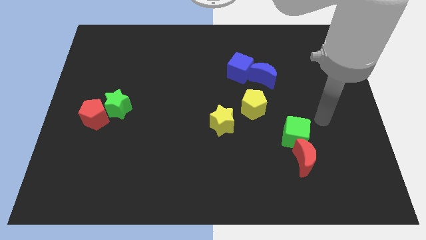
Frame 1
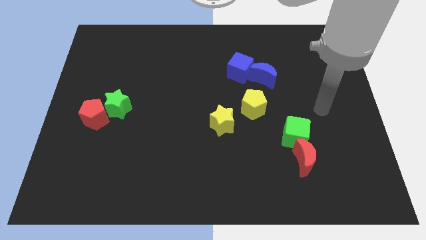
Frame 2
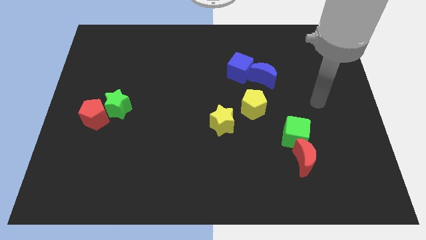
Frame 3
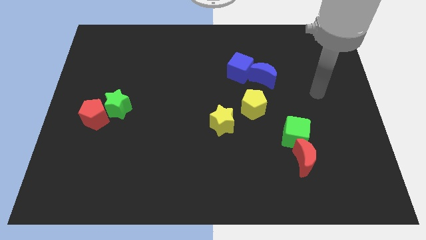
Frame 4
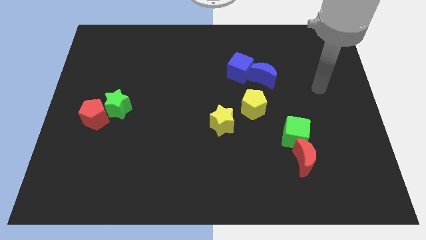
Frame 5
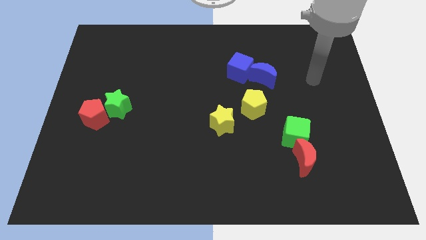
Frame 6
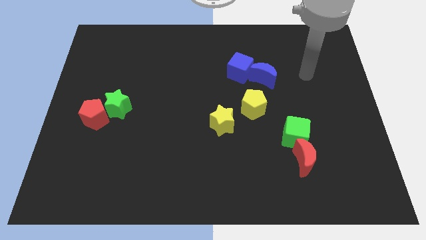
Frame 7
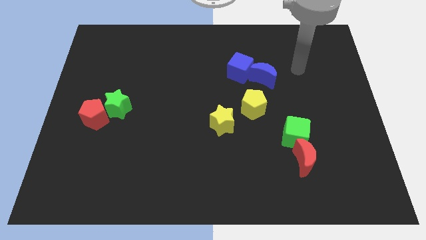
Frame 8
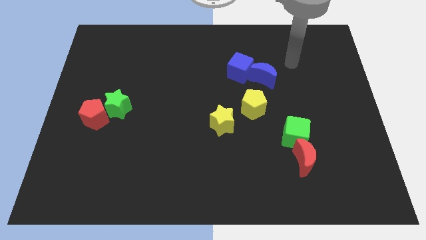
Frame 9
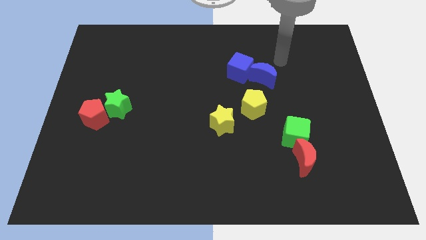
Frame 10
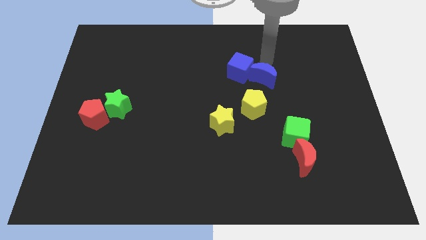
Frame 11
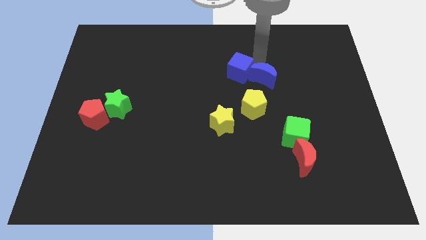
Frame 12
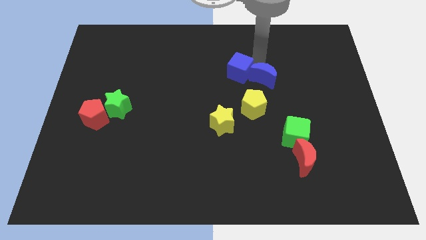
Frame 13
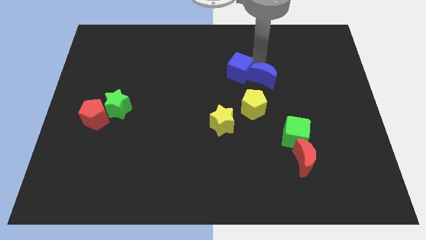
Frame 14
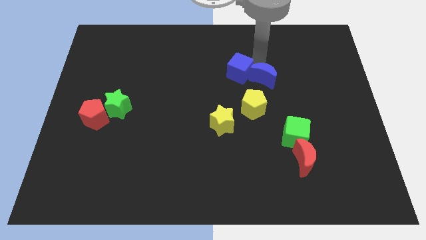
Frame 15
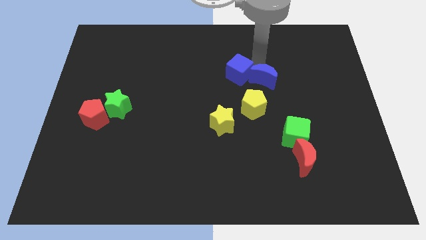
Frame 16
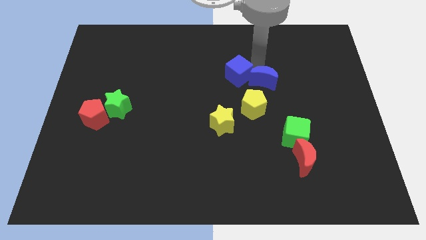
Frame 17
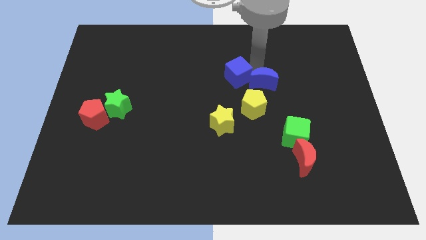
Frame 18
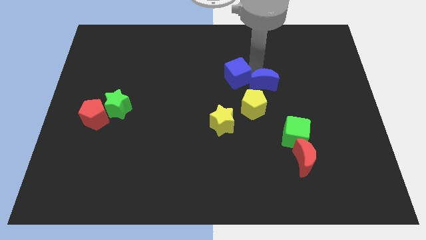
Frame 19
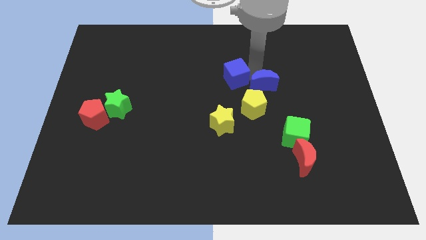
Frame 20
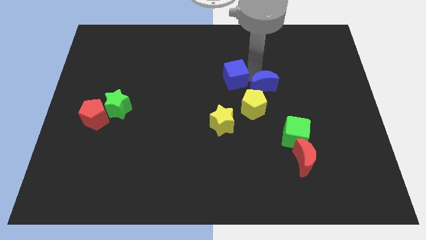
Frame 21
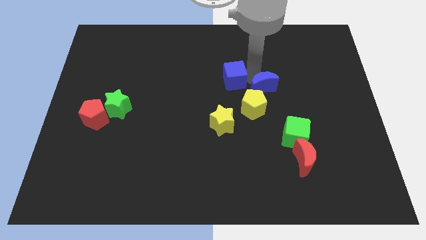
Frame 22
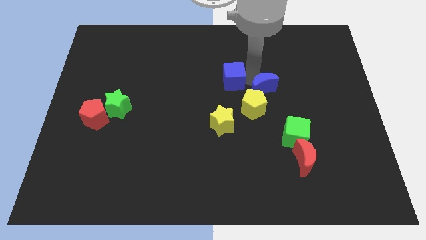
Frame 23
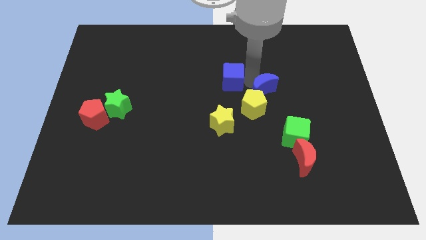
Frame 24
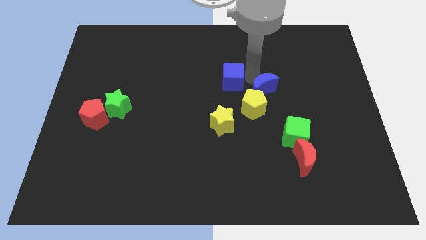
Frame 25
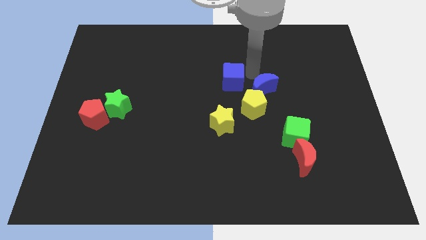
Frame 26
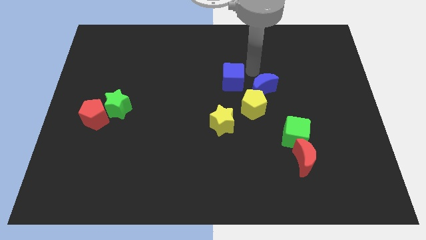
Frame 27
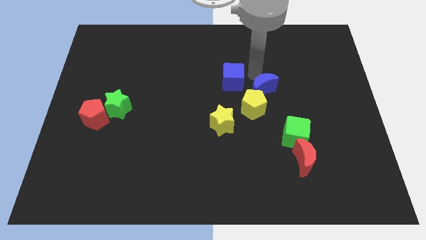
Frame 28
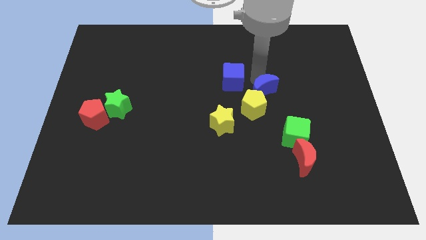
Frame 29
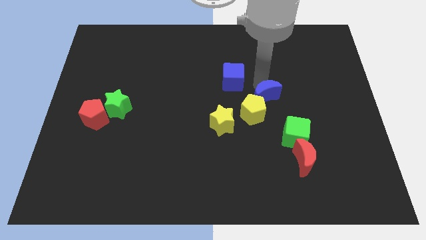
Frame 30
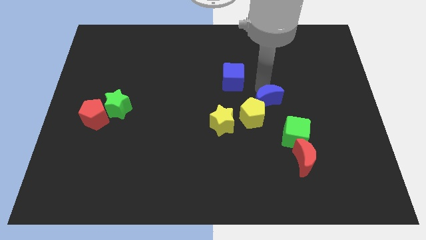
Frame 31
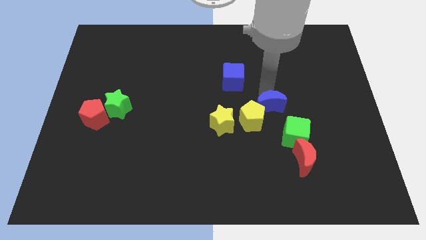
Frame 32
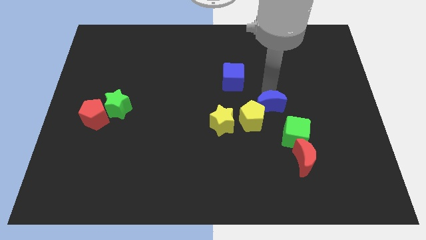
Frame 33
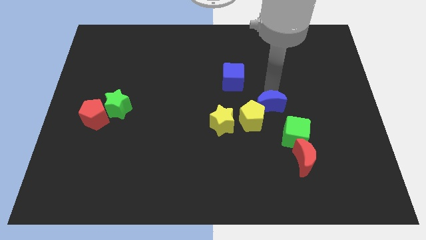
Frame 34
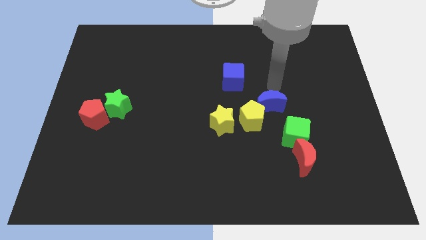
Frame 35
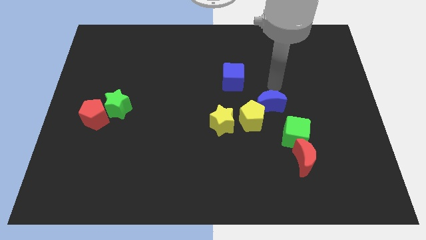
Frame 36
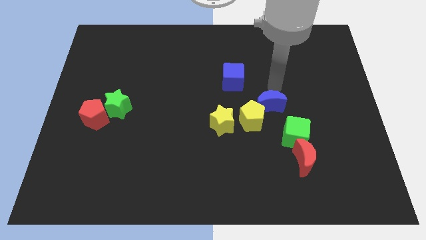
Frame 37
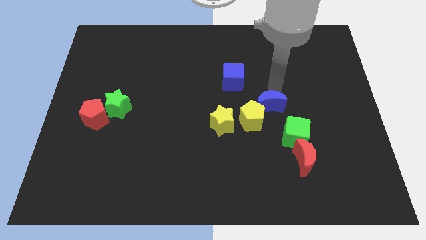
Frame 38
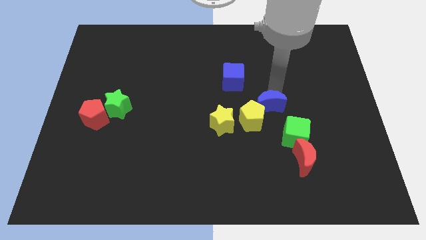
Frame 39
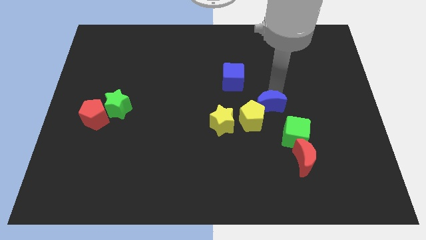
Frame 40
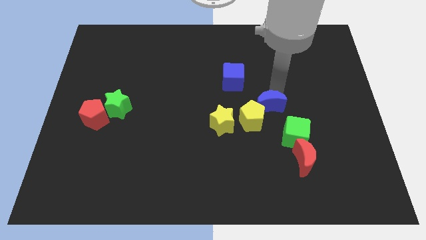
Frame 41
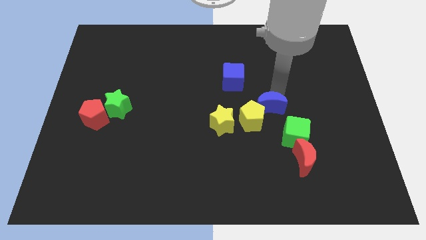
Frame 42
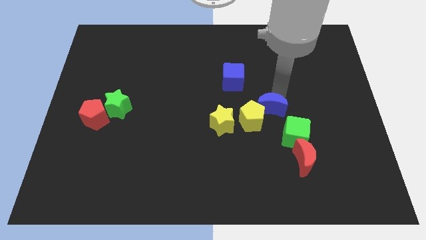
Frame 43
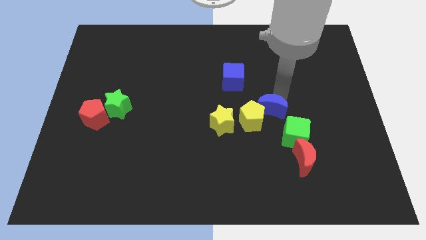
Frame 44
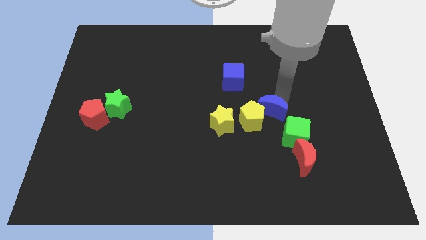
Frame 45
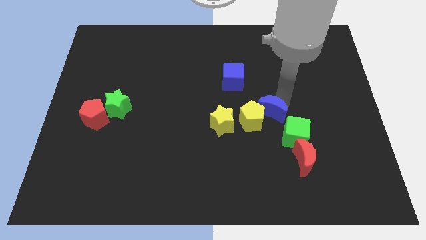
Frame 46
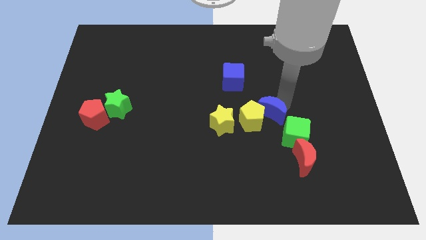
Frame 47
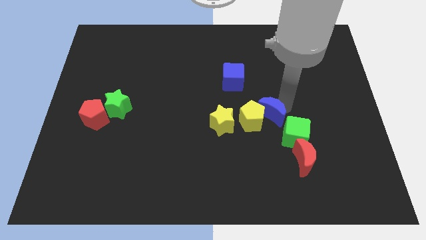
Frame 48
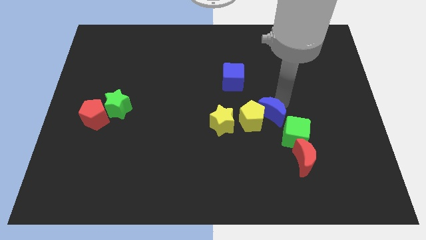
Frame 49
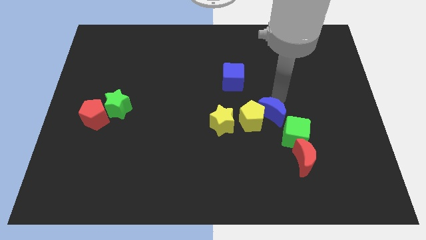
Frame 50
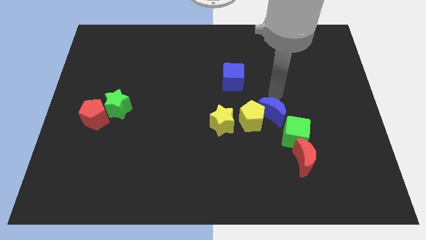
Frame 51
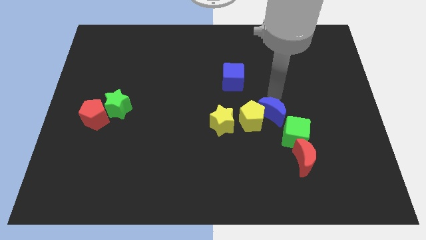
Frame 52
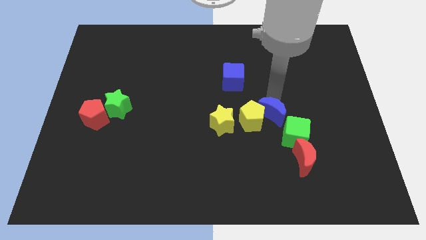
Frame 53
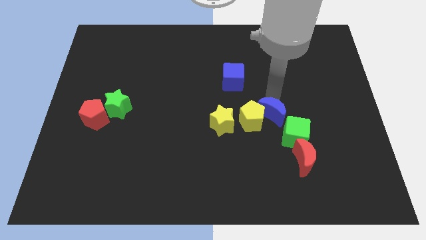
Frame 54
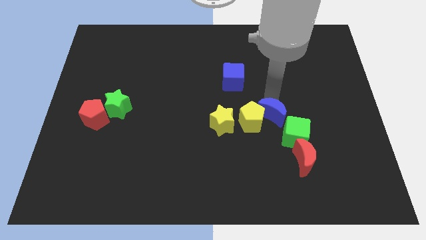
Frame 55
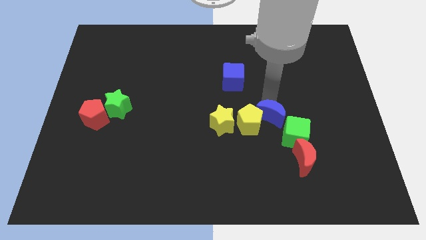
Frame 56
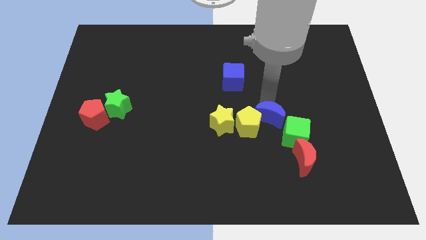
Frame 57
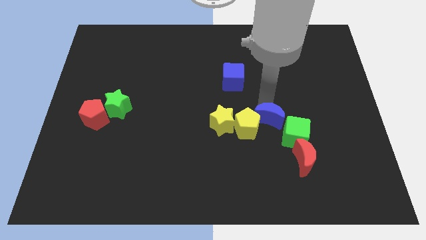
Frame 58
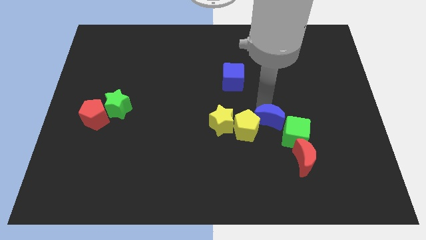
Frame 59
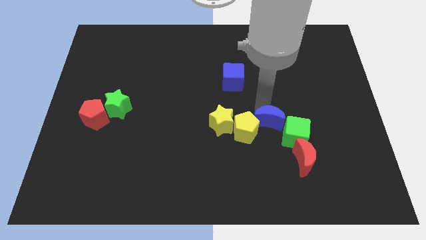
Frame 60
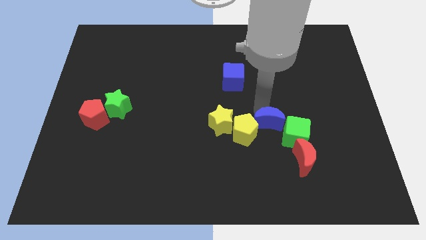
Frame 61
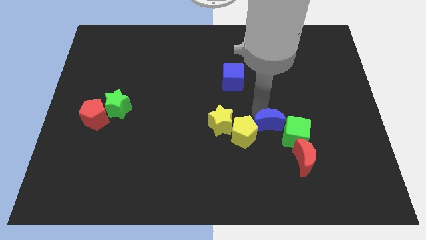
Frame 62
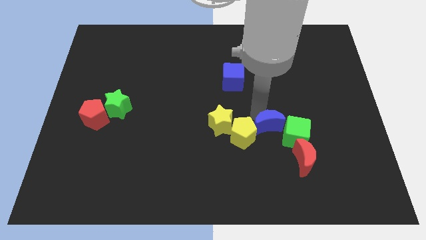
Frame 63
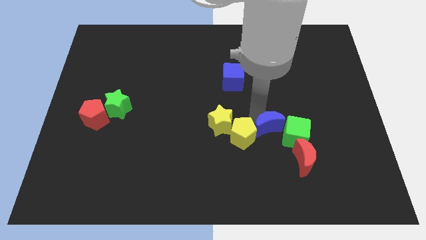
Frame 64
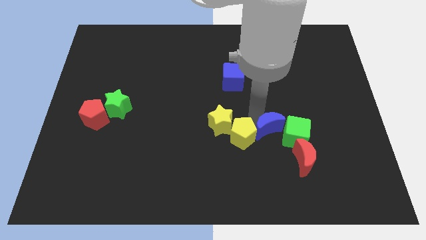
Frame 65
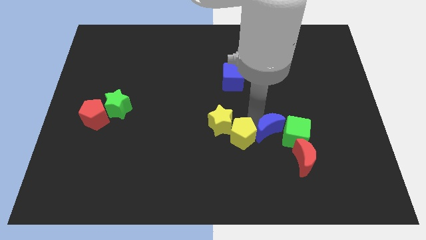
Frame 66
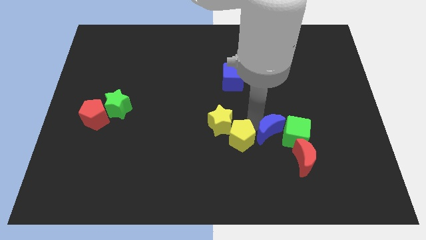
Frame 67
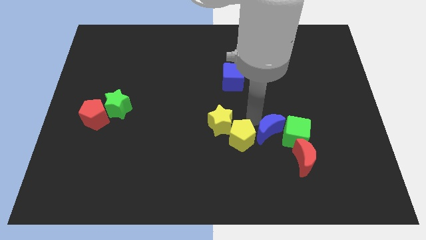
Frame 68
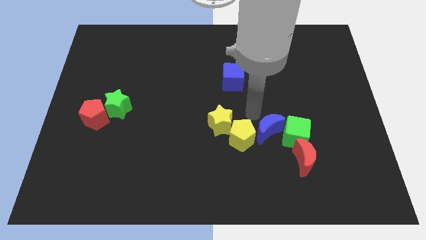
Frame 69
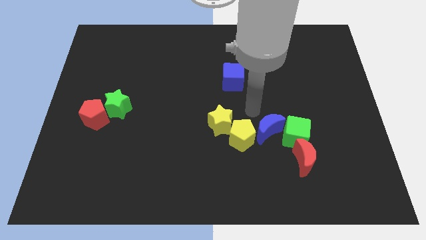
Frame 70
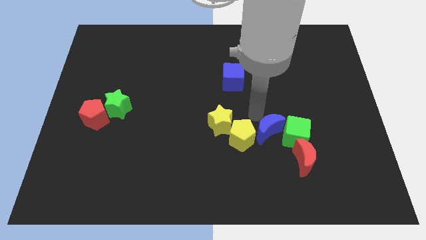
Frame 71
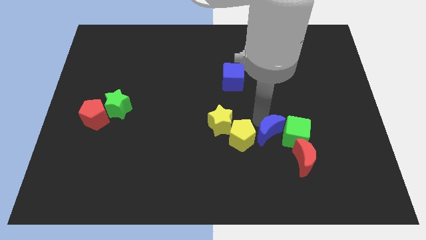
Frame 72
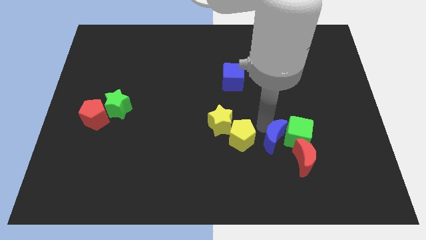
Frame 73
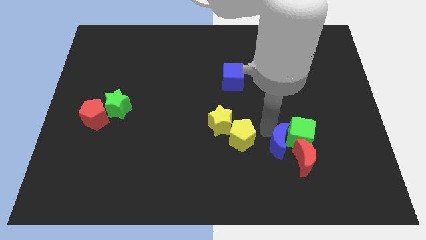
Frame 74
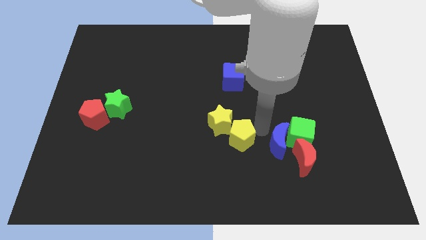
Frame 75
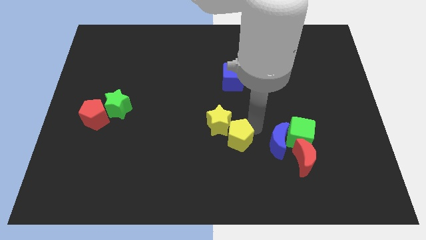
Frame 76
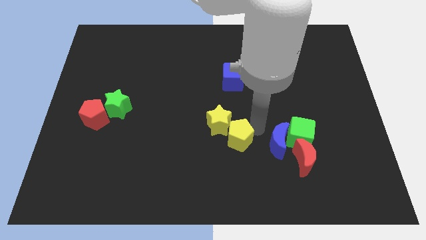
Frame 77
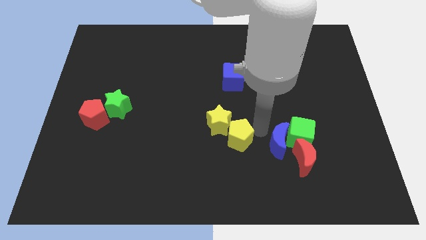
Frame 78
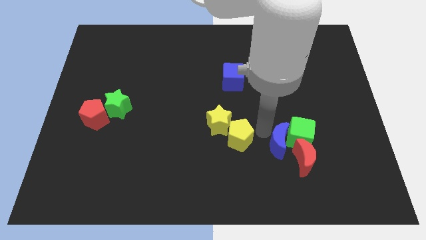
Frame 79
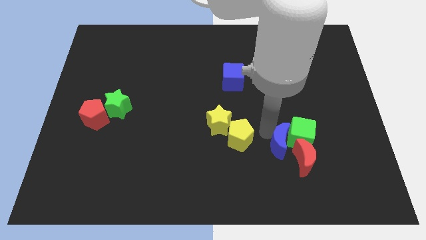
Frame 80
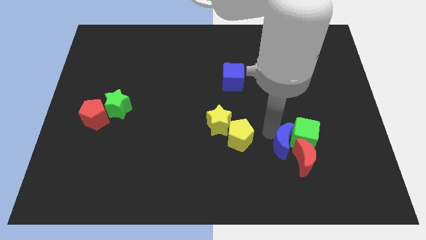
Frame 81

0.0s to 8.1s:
put the blue moon next to the red moon

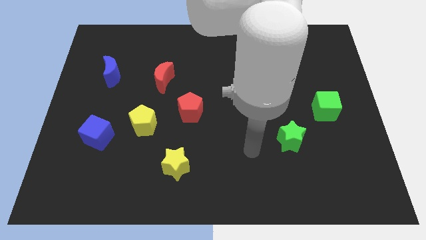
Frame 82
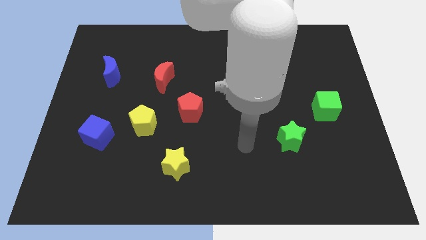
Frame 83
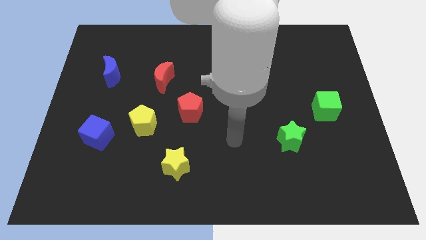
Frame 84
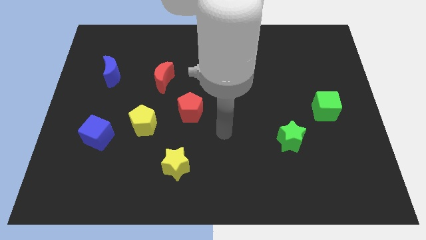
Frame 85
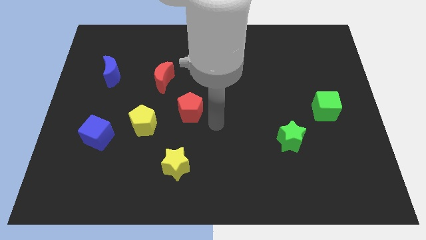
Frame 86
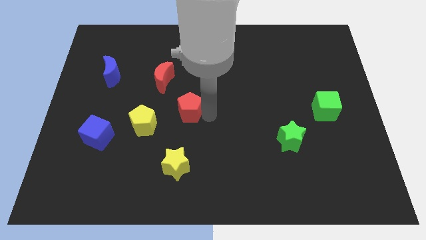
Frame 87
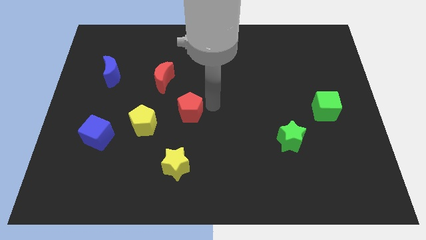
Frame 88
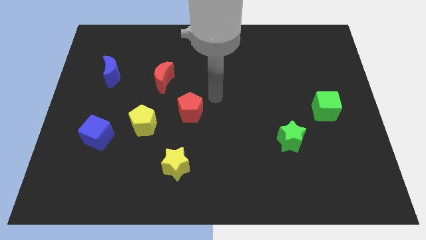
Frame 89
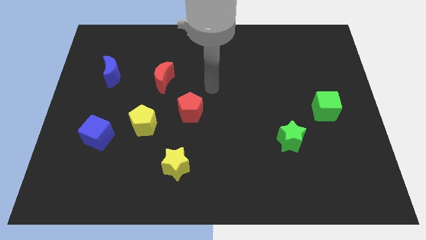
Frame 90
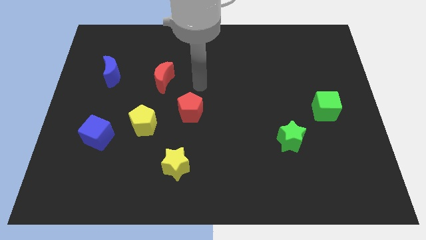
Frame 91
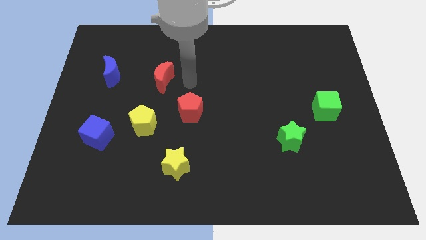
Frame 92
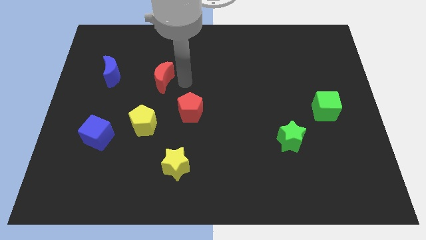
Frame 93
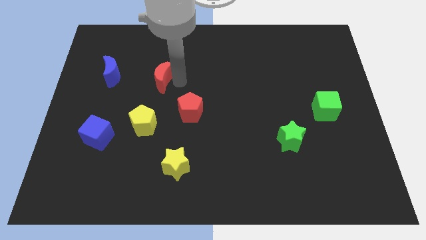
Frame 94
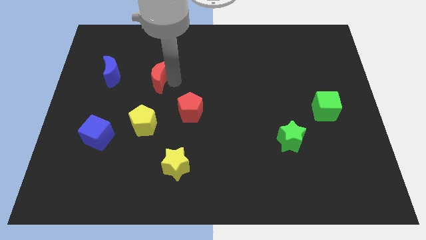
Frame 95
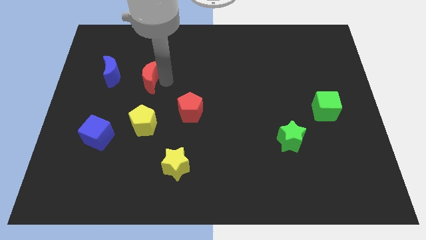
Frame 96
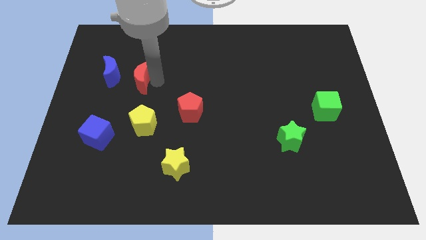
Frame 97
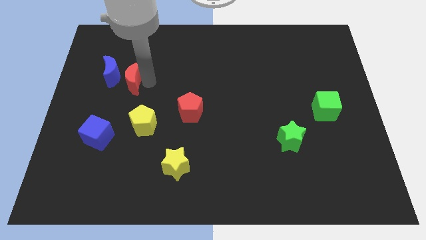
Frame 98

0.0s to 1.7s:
push the red moon next to the blue moon
